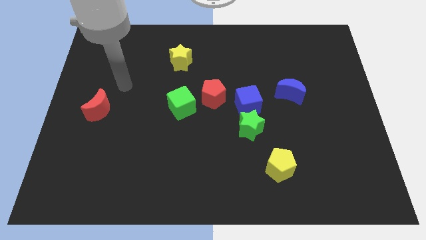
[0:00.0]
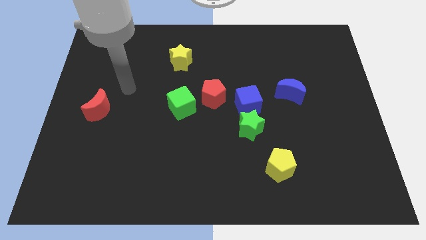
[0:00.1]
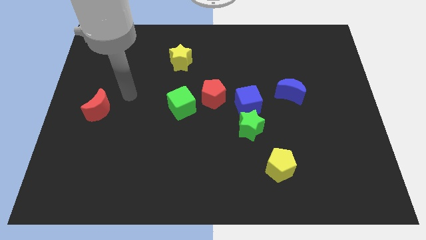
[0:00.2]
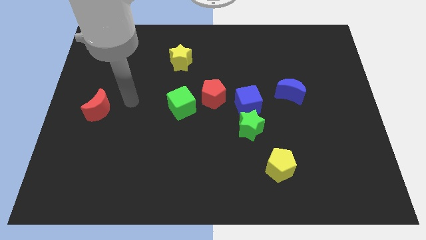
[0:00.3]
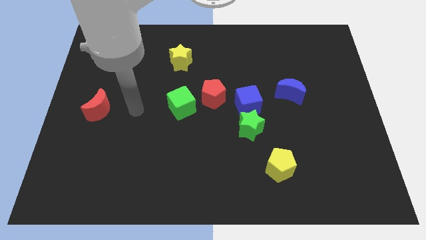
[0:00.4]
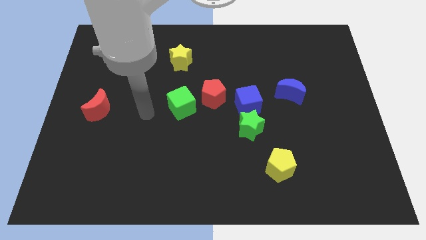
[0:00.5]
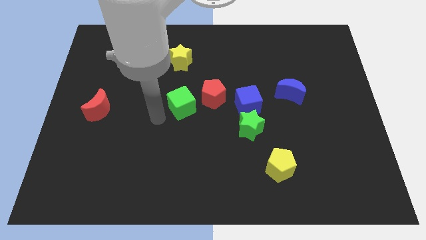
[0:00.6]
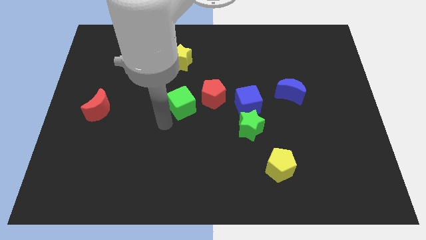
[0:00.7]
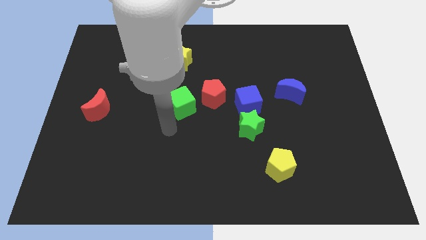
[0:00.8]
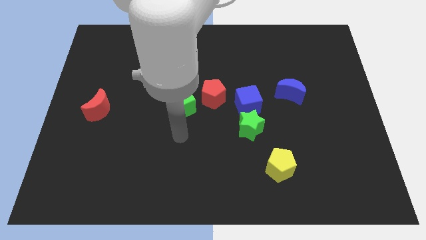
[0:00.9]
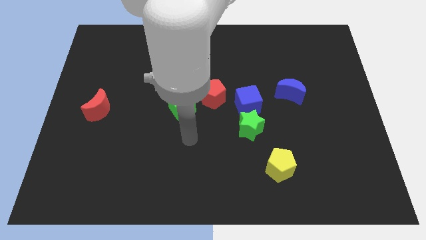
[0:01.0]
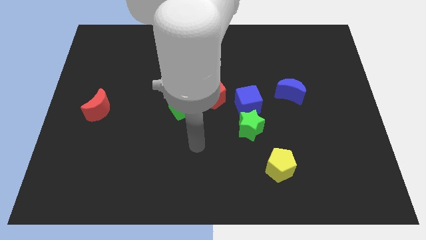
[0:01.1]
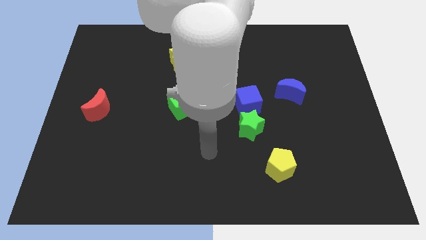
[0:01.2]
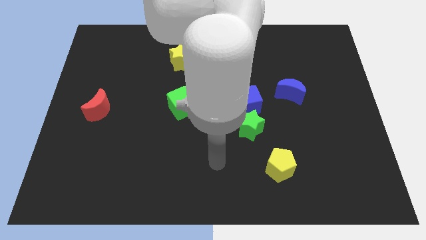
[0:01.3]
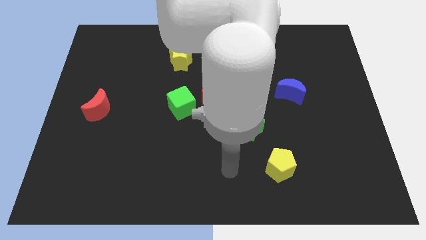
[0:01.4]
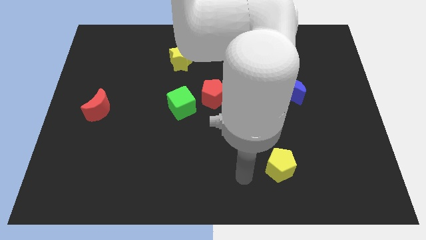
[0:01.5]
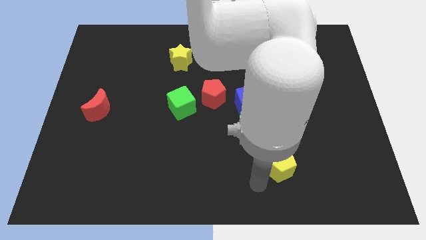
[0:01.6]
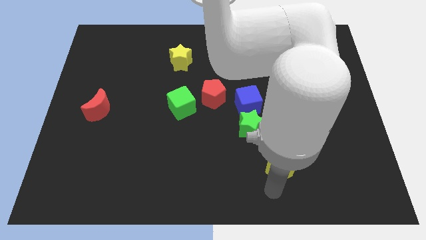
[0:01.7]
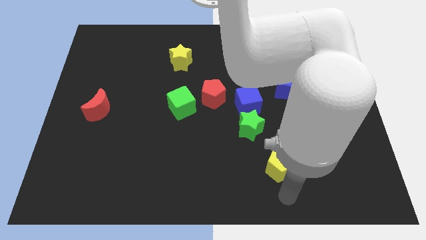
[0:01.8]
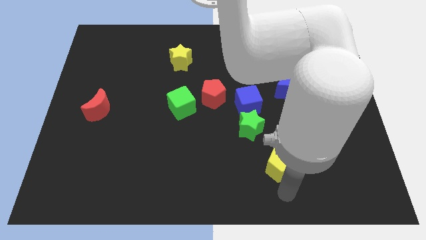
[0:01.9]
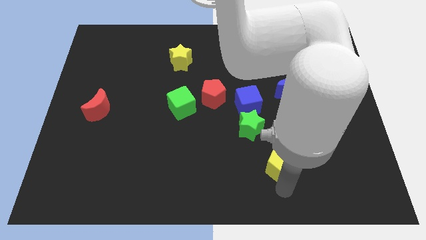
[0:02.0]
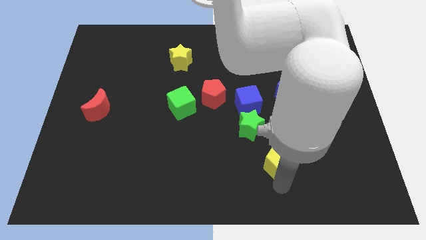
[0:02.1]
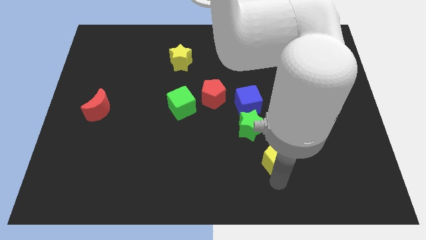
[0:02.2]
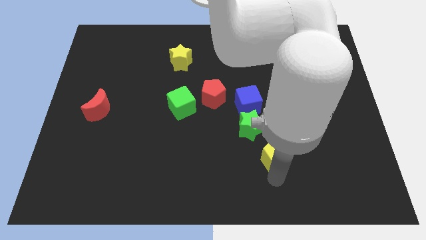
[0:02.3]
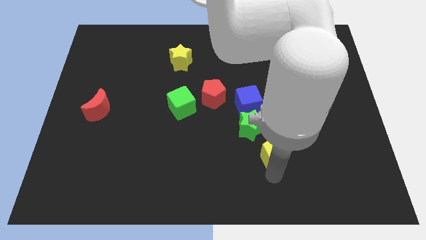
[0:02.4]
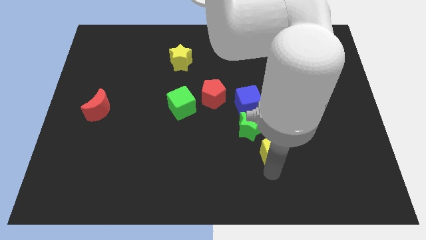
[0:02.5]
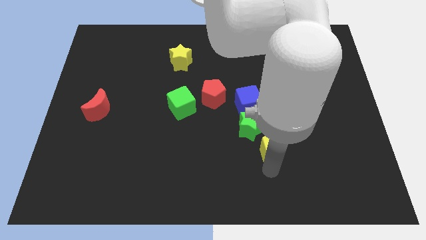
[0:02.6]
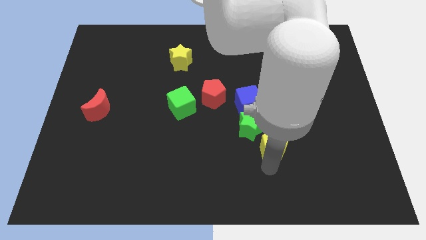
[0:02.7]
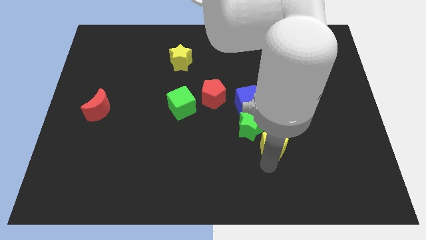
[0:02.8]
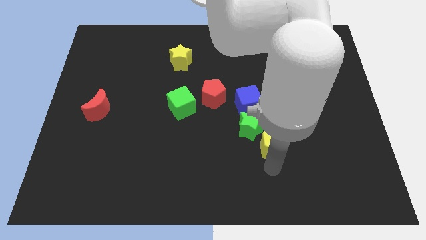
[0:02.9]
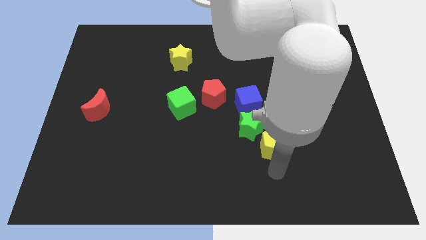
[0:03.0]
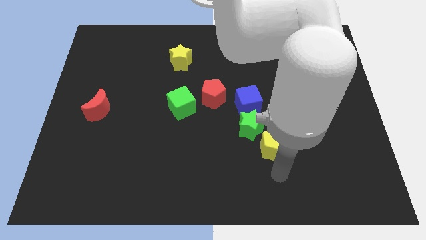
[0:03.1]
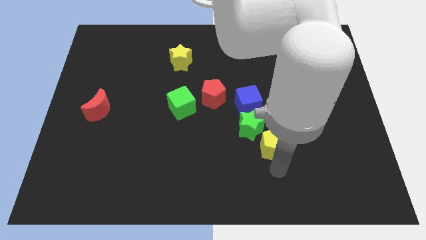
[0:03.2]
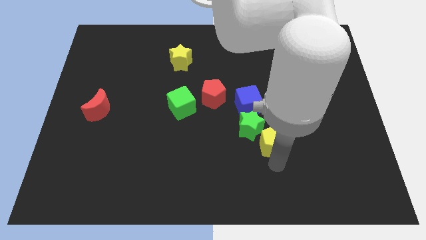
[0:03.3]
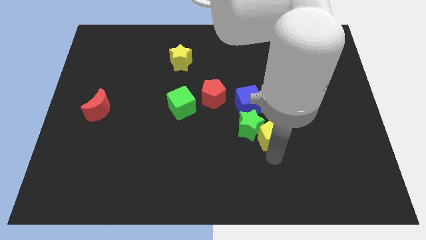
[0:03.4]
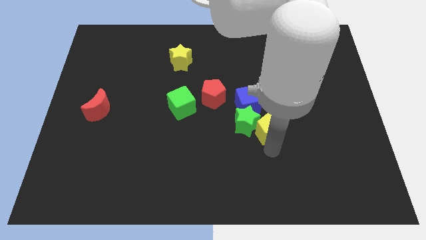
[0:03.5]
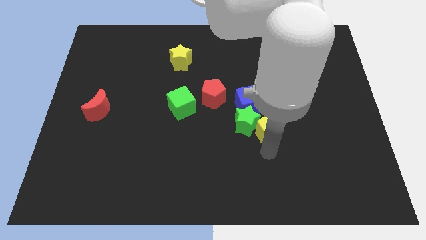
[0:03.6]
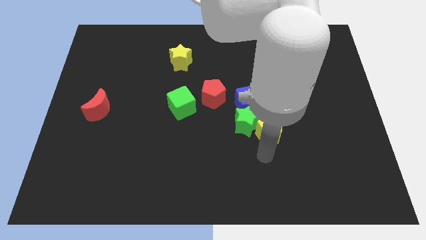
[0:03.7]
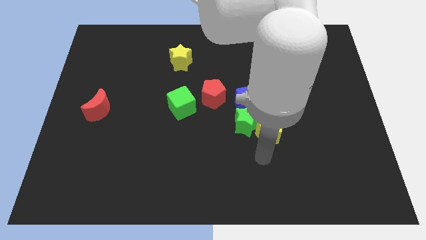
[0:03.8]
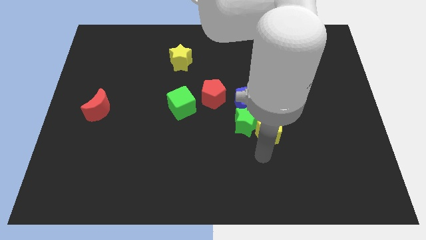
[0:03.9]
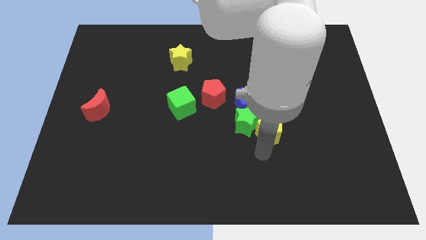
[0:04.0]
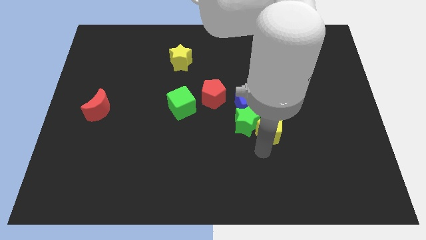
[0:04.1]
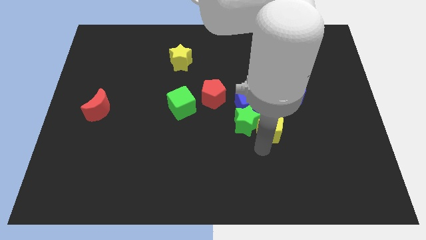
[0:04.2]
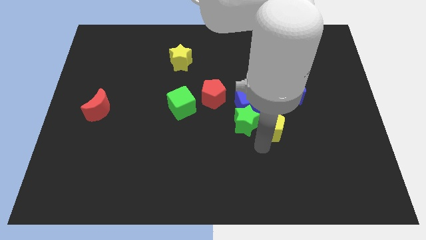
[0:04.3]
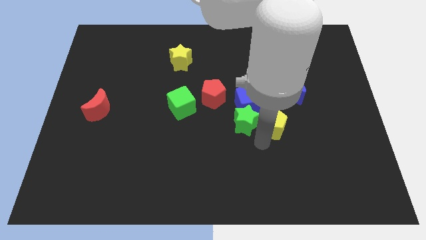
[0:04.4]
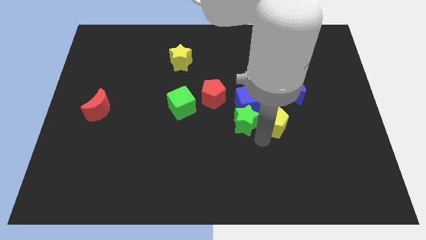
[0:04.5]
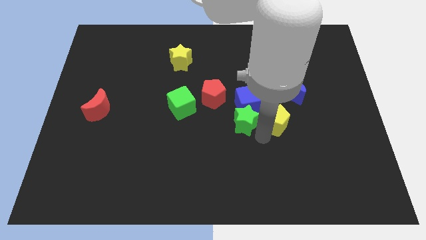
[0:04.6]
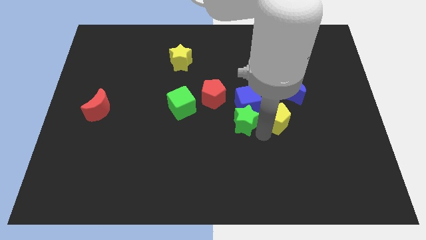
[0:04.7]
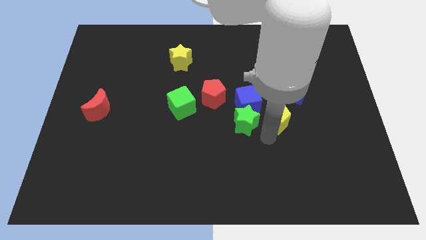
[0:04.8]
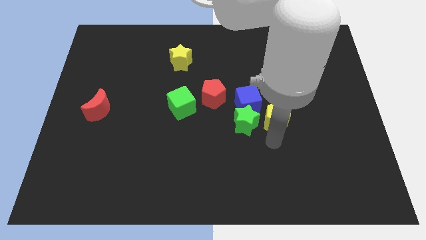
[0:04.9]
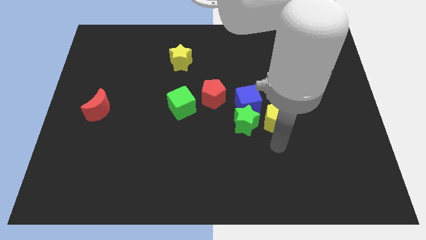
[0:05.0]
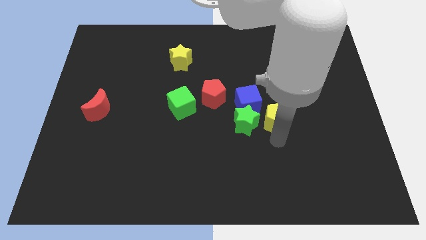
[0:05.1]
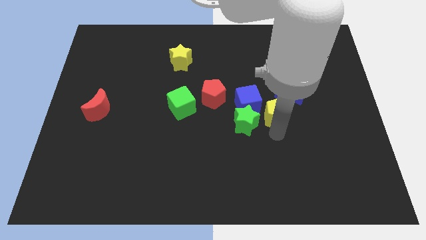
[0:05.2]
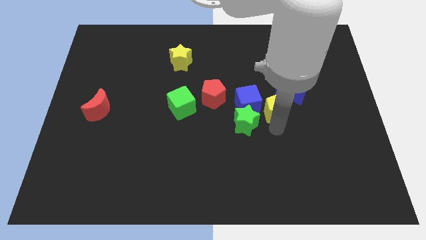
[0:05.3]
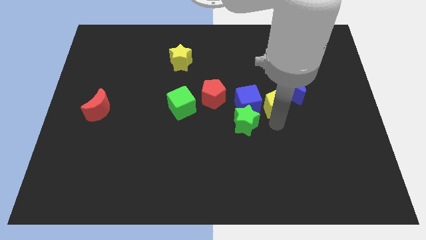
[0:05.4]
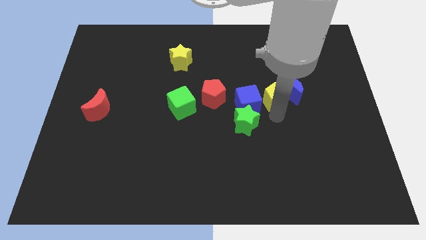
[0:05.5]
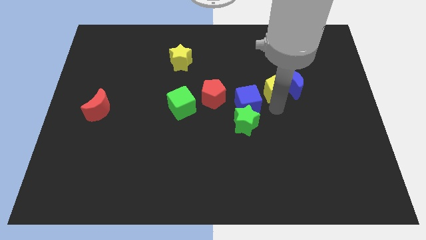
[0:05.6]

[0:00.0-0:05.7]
move the yellow pentagon diagonally up and to the left of the blue moon

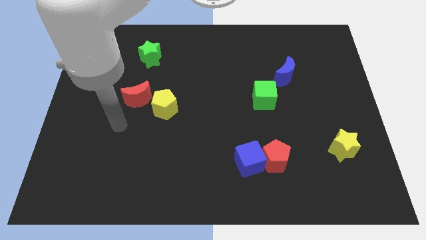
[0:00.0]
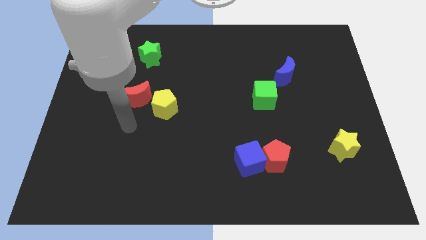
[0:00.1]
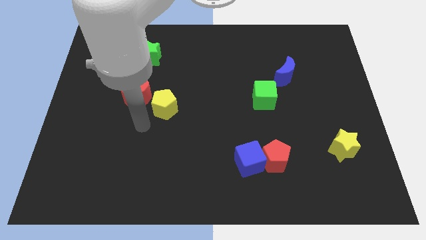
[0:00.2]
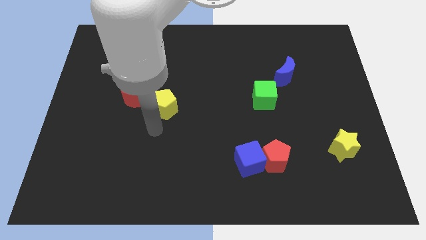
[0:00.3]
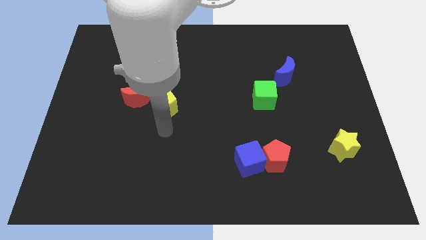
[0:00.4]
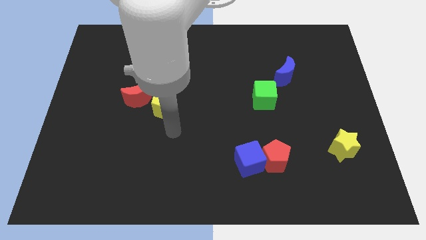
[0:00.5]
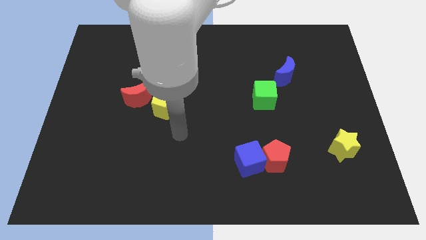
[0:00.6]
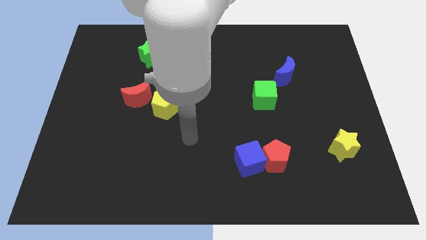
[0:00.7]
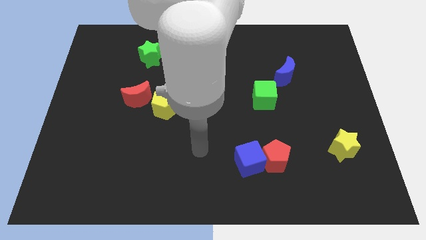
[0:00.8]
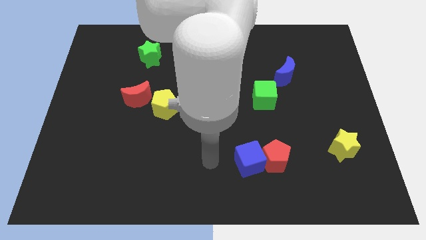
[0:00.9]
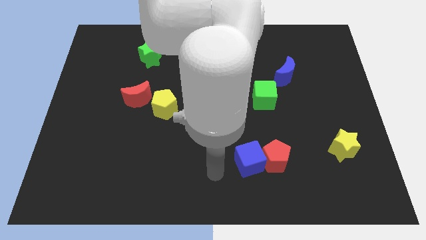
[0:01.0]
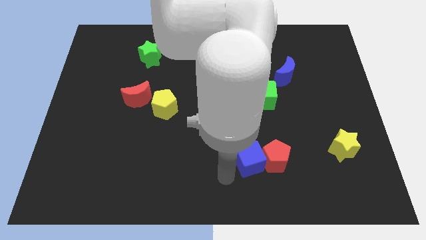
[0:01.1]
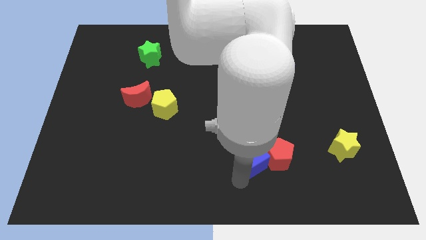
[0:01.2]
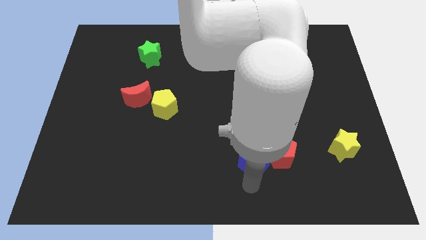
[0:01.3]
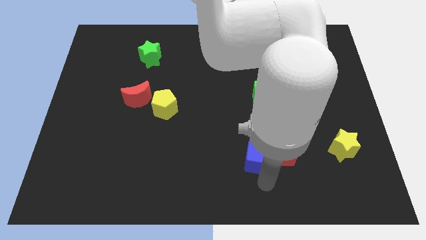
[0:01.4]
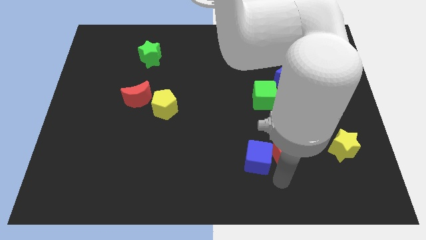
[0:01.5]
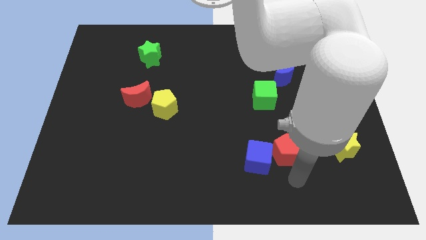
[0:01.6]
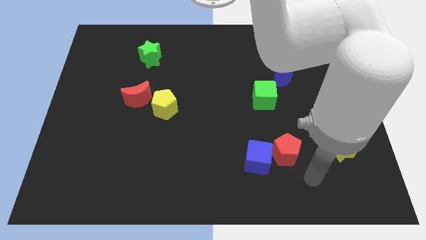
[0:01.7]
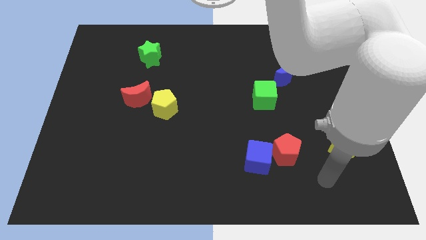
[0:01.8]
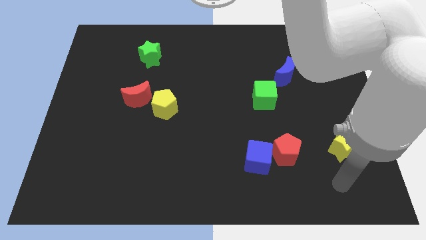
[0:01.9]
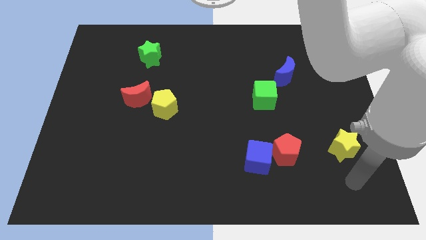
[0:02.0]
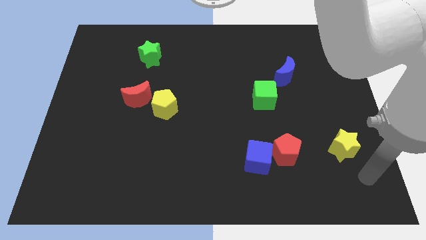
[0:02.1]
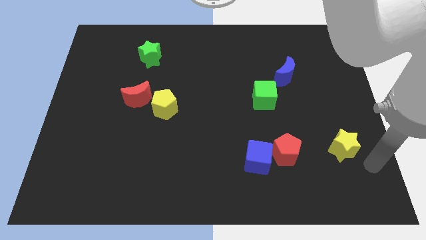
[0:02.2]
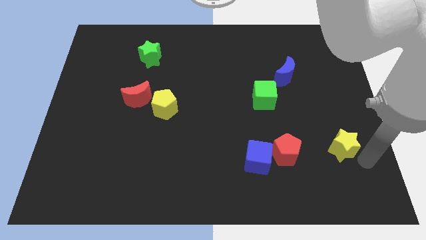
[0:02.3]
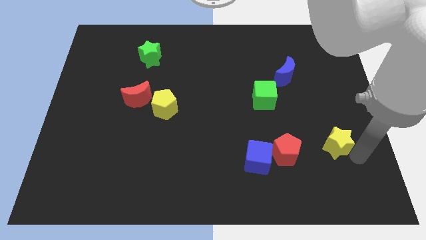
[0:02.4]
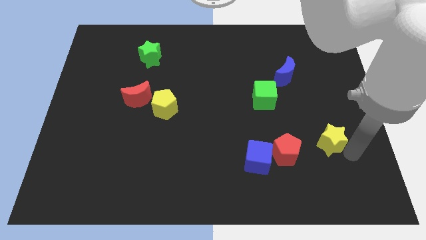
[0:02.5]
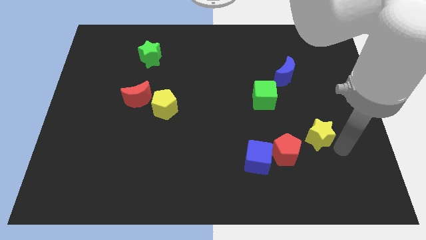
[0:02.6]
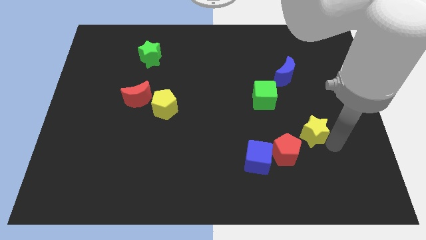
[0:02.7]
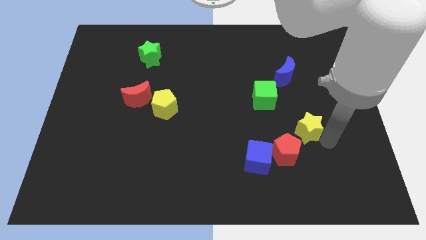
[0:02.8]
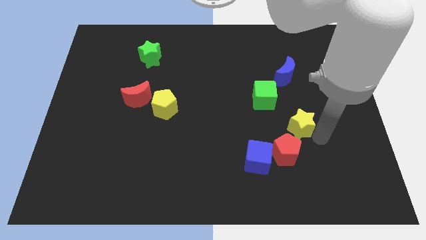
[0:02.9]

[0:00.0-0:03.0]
slide the yellow star to the top side of the red pentagon
